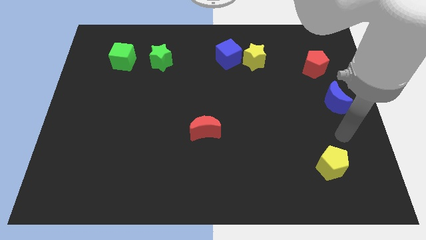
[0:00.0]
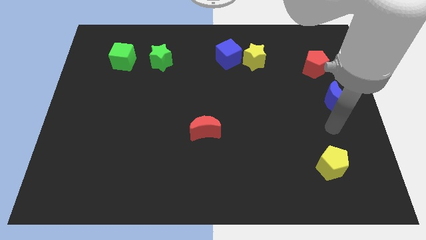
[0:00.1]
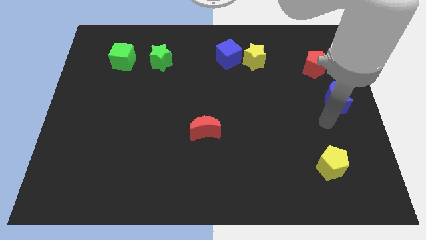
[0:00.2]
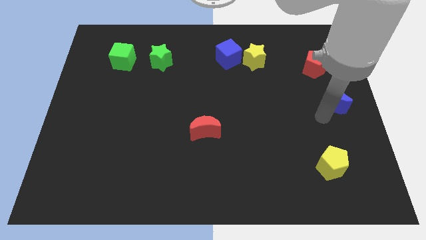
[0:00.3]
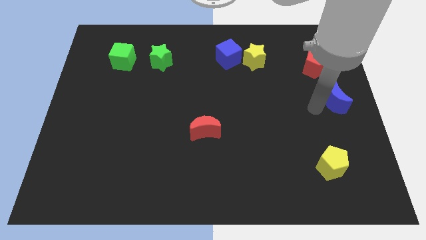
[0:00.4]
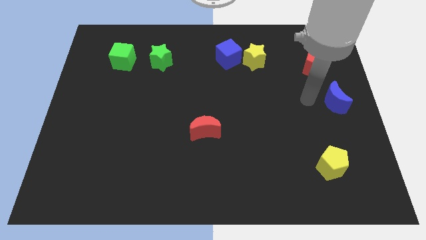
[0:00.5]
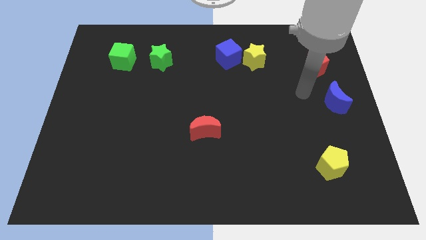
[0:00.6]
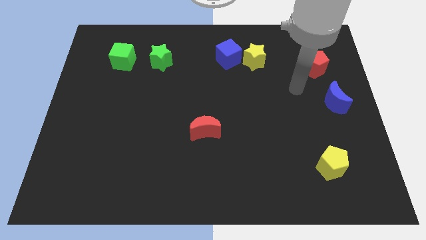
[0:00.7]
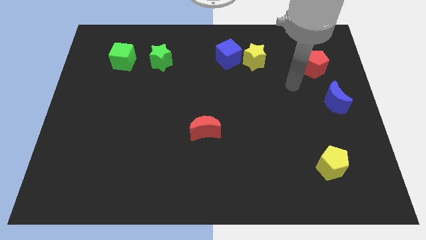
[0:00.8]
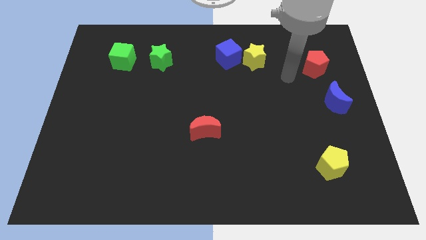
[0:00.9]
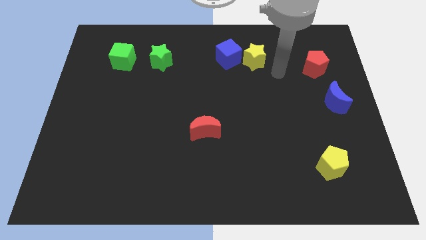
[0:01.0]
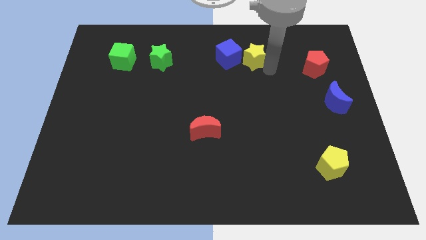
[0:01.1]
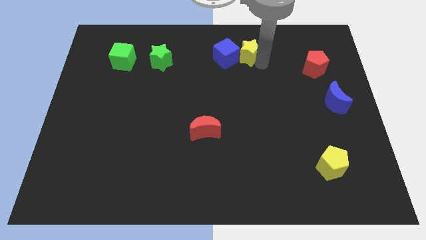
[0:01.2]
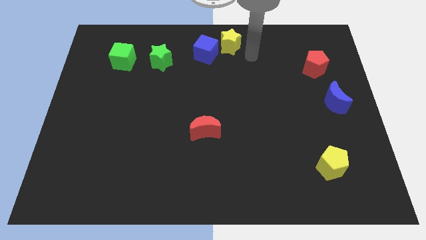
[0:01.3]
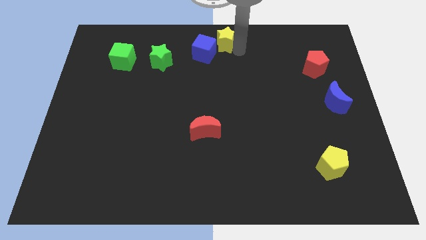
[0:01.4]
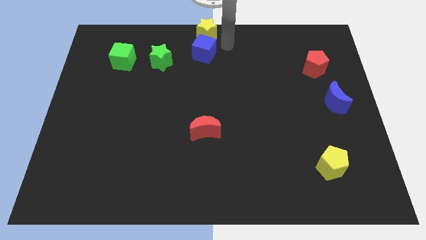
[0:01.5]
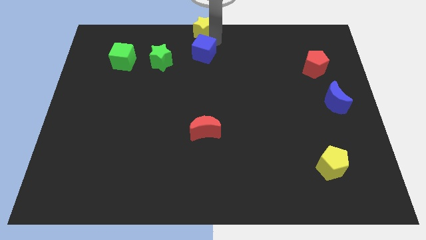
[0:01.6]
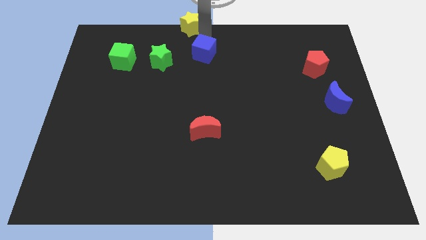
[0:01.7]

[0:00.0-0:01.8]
pull the blue cube apart from the yellow star

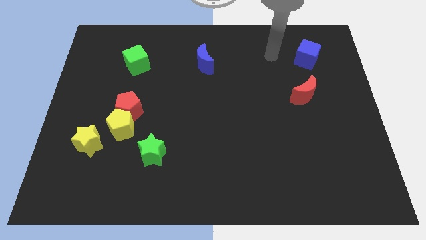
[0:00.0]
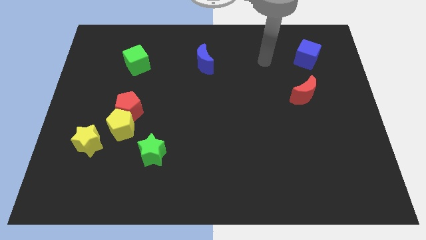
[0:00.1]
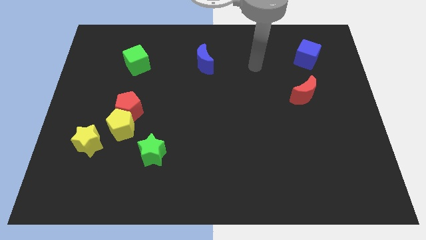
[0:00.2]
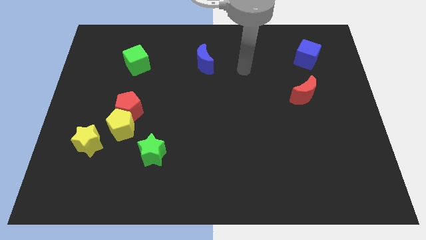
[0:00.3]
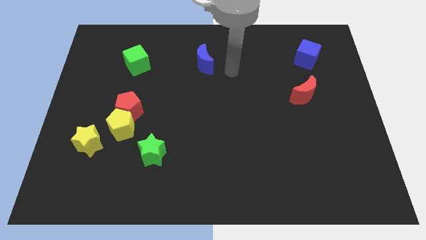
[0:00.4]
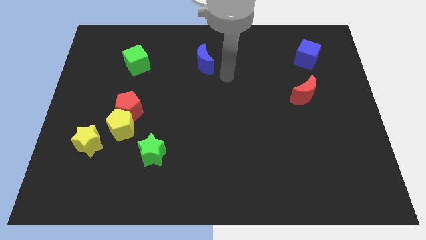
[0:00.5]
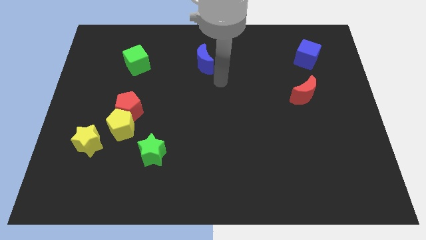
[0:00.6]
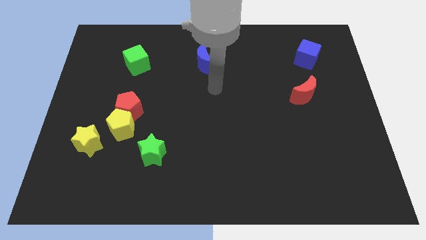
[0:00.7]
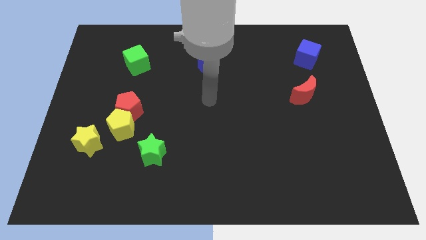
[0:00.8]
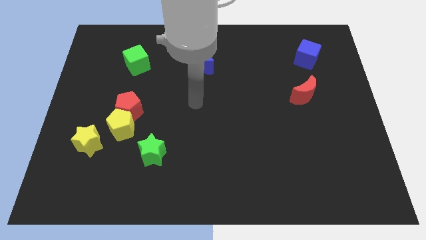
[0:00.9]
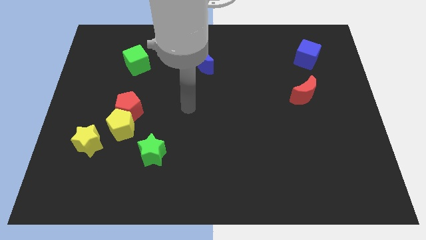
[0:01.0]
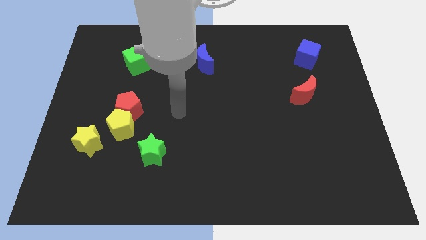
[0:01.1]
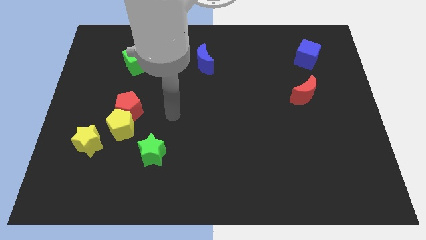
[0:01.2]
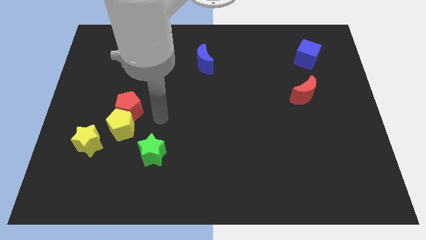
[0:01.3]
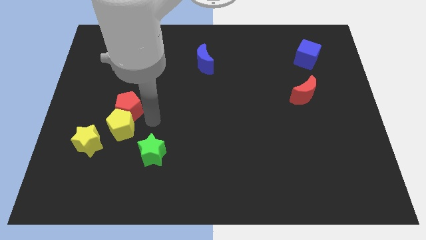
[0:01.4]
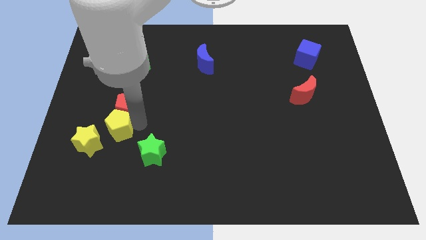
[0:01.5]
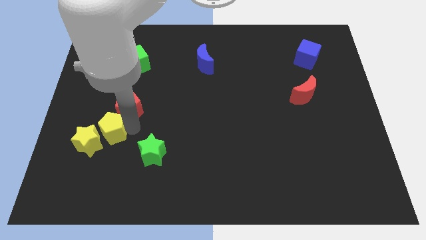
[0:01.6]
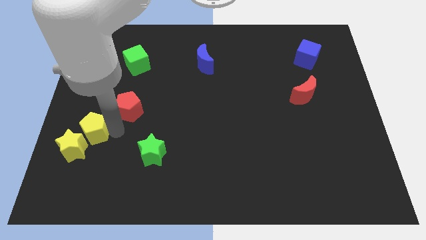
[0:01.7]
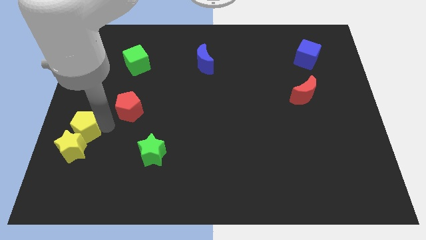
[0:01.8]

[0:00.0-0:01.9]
separate the red pentagon from the yellow pentagon

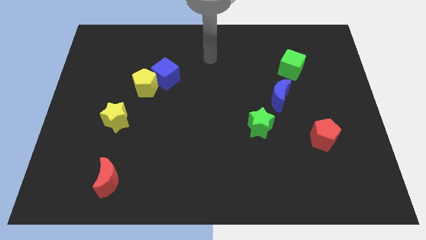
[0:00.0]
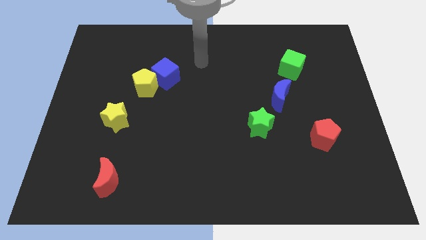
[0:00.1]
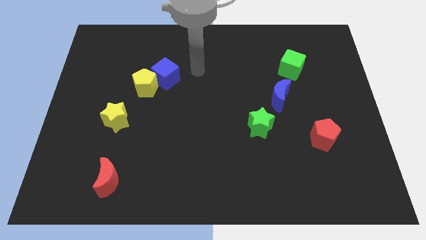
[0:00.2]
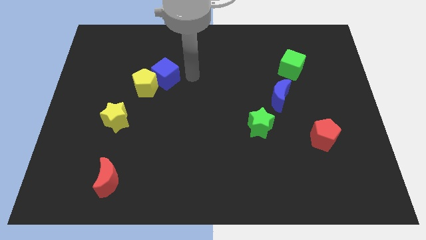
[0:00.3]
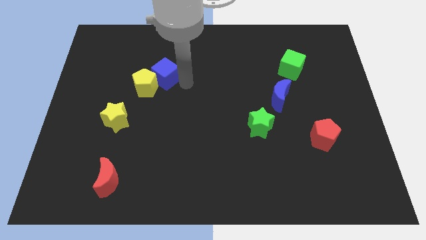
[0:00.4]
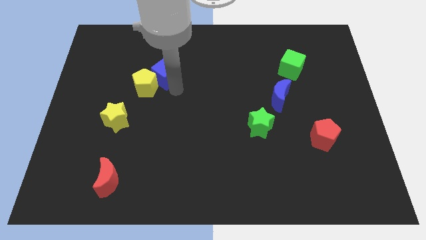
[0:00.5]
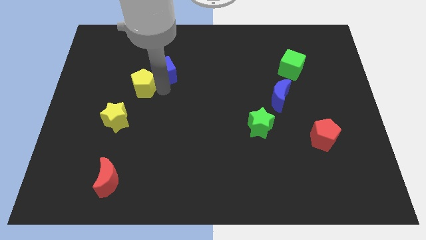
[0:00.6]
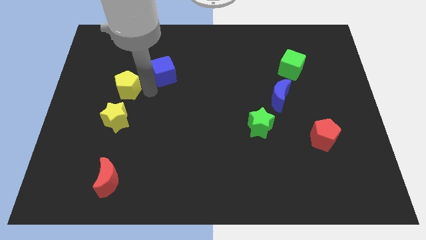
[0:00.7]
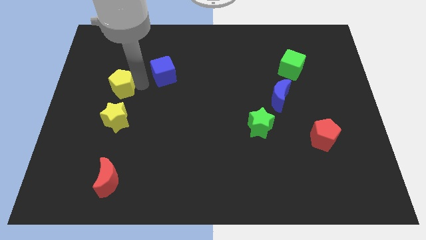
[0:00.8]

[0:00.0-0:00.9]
separate the blue cube from the yellow pentagon

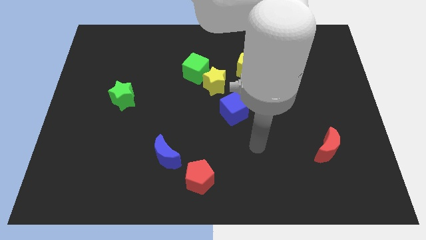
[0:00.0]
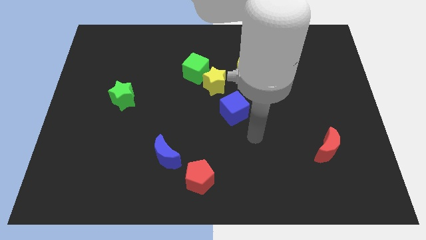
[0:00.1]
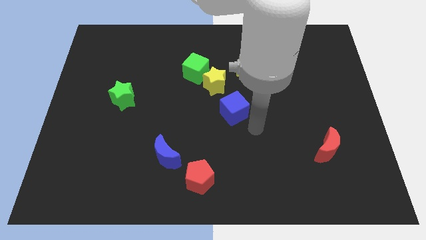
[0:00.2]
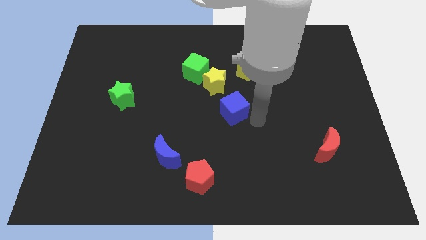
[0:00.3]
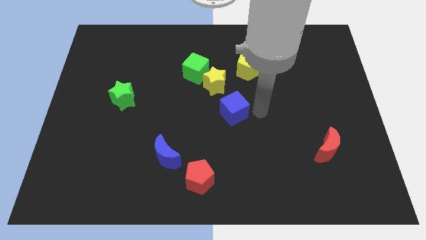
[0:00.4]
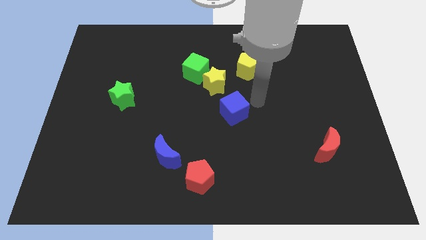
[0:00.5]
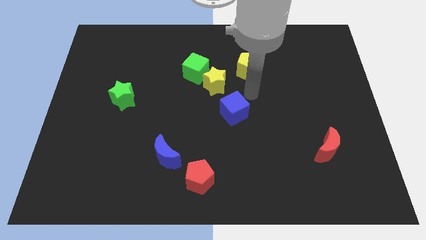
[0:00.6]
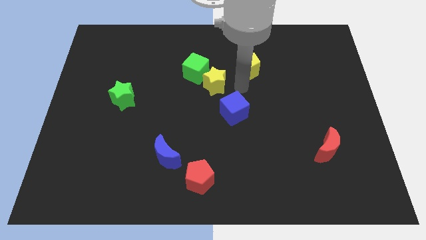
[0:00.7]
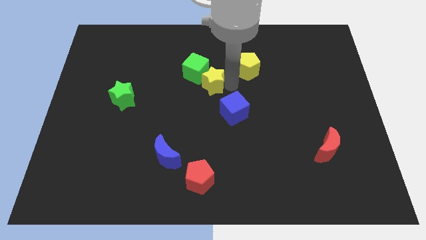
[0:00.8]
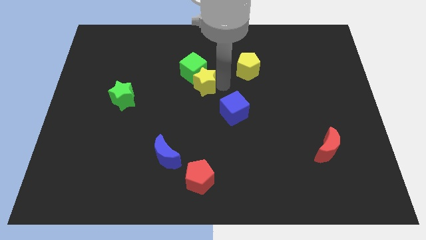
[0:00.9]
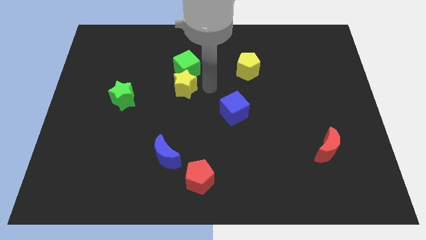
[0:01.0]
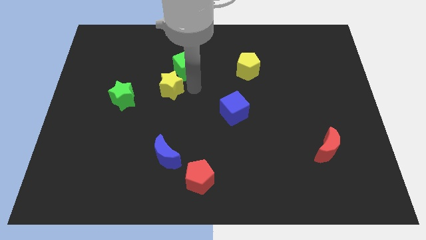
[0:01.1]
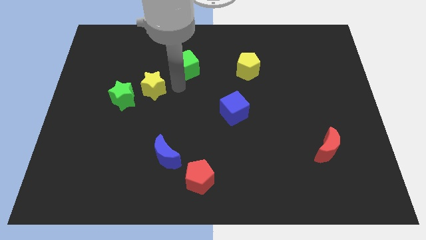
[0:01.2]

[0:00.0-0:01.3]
separate the green cube from the yellow star

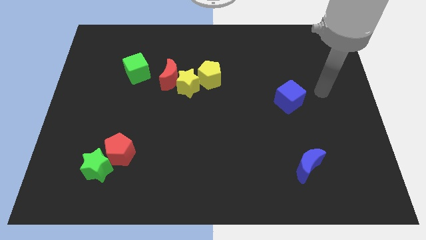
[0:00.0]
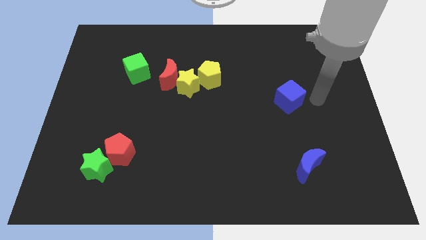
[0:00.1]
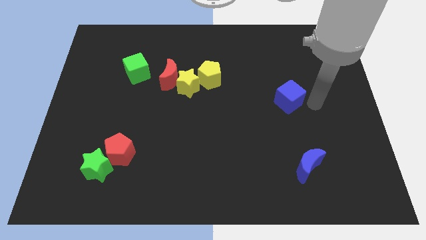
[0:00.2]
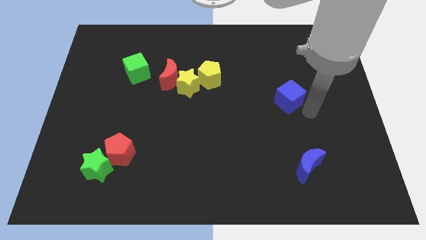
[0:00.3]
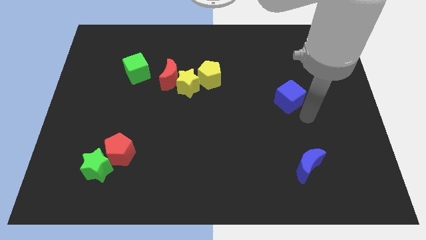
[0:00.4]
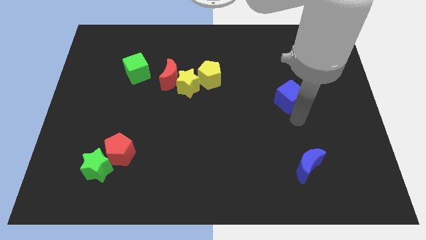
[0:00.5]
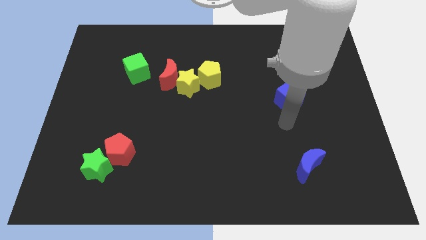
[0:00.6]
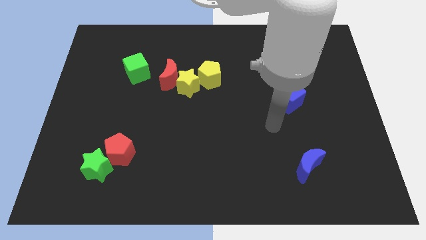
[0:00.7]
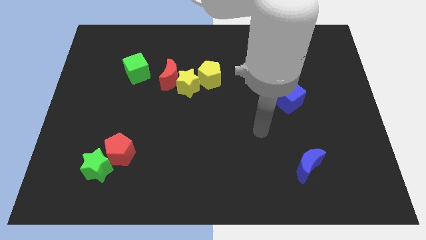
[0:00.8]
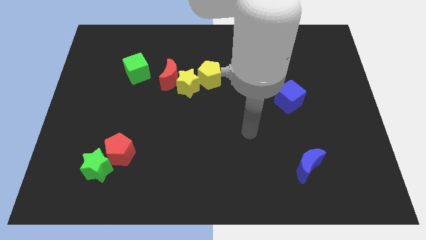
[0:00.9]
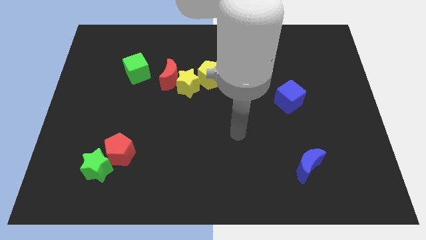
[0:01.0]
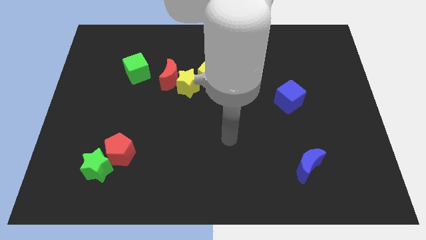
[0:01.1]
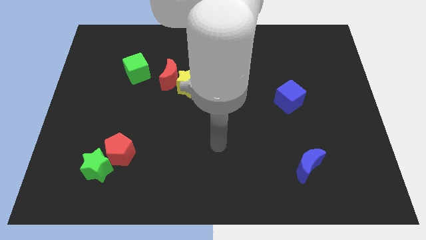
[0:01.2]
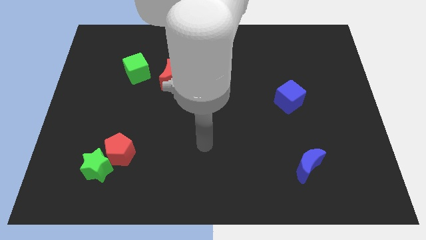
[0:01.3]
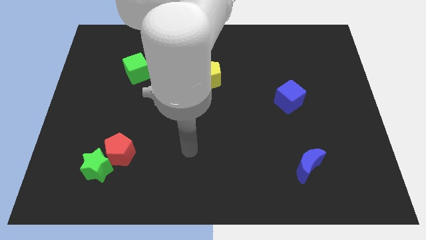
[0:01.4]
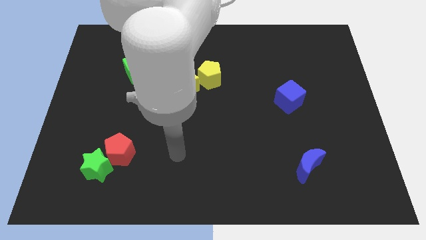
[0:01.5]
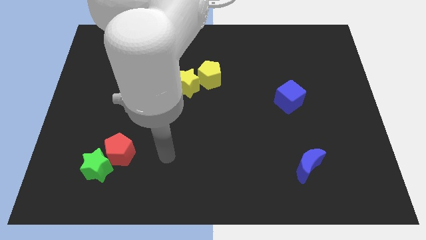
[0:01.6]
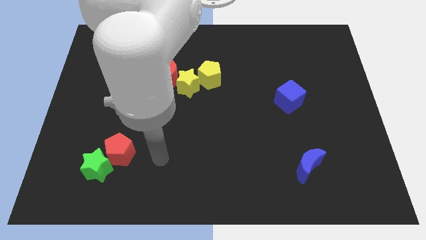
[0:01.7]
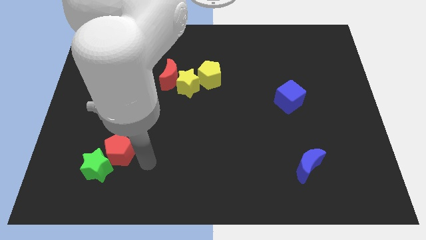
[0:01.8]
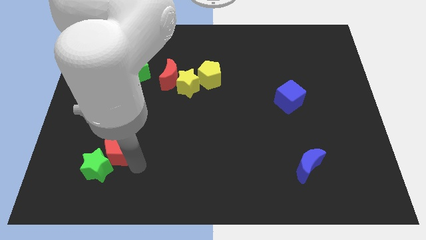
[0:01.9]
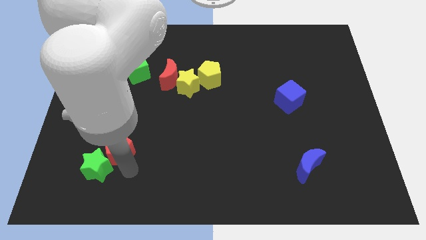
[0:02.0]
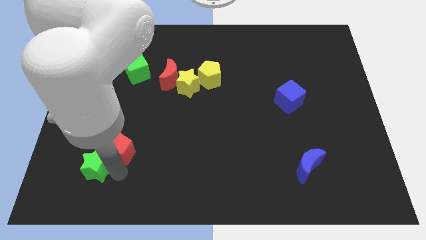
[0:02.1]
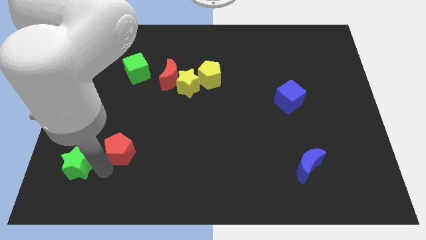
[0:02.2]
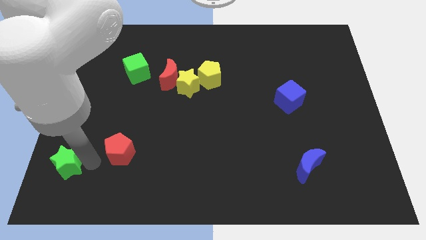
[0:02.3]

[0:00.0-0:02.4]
move the red pentagon away from the green star

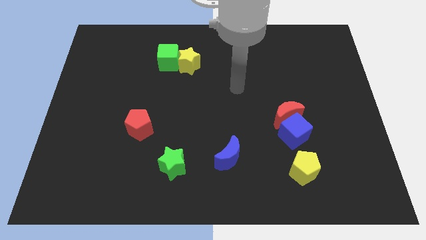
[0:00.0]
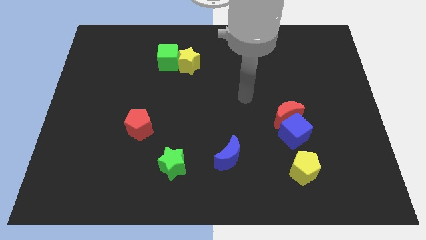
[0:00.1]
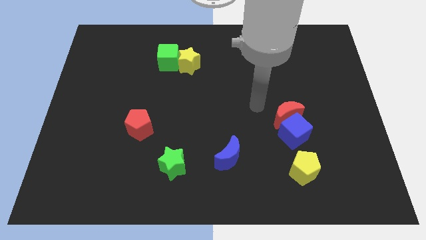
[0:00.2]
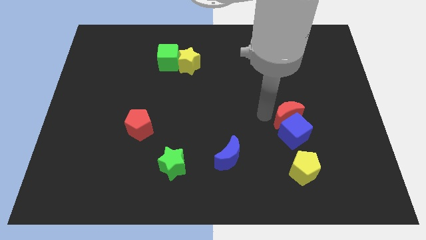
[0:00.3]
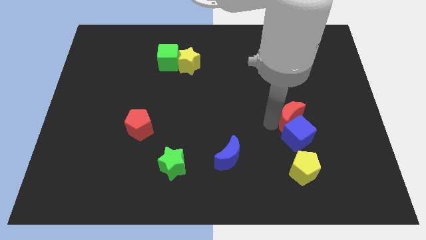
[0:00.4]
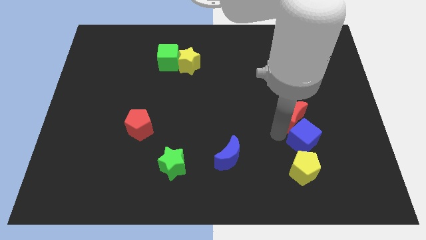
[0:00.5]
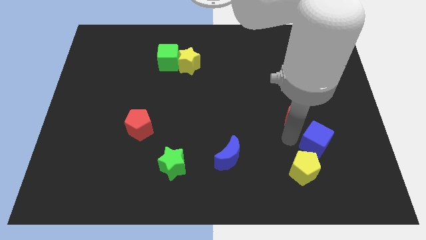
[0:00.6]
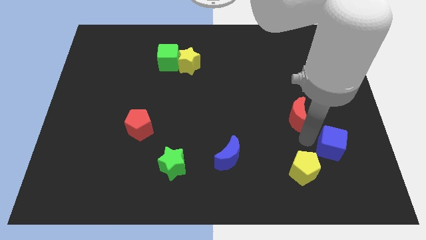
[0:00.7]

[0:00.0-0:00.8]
separate the red moon from the blue cube

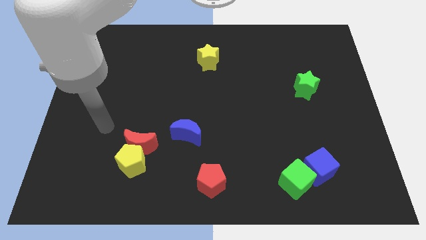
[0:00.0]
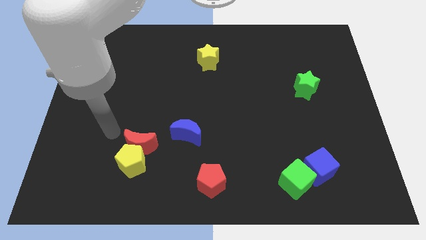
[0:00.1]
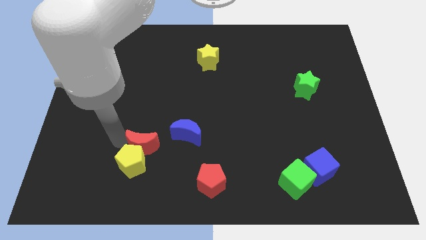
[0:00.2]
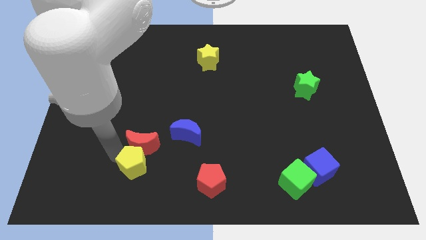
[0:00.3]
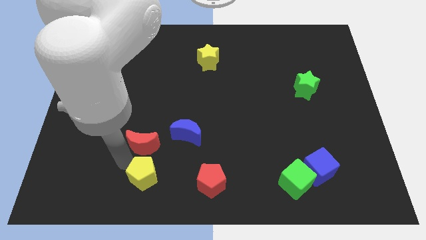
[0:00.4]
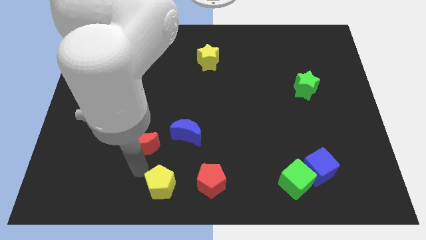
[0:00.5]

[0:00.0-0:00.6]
pull the red moon apart from the yellow pentagon
